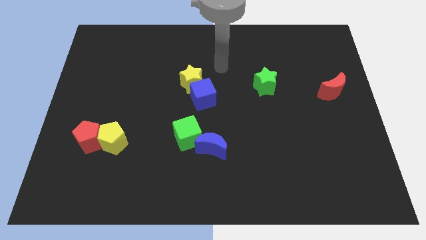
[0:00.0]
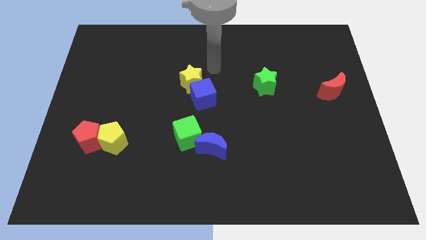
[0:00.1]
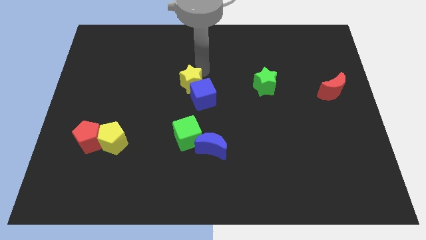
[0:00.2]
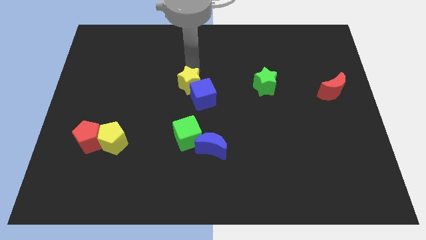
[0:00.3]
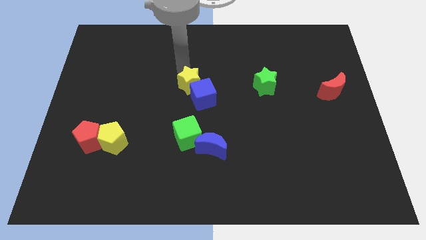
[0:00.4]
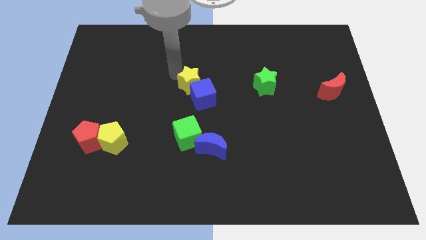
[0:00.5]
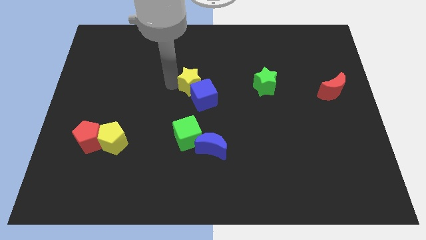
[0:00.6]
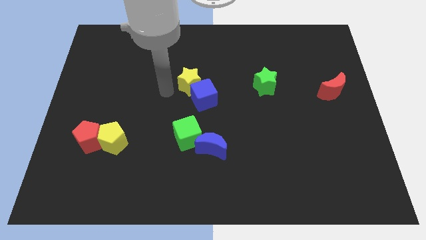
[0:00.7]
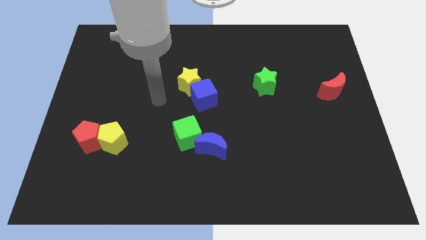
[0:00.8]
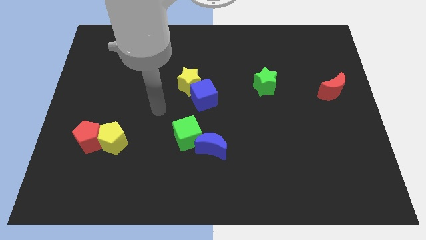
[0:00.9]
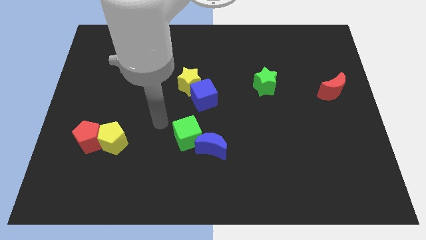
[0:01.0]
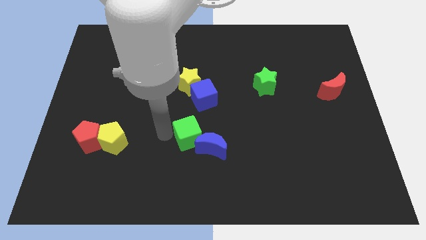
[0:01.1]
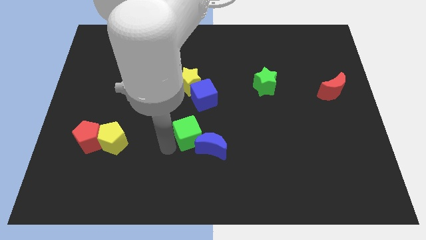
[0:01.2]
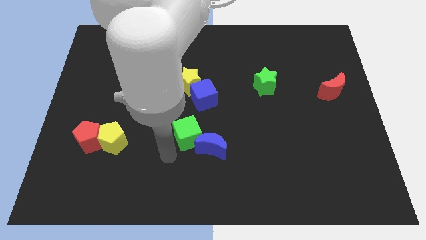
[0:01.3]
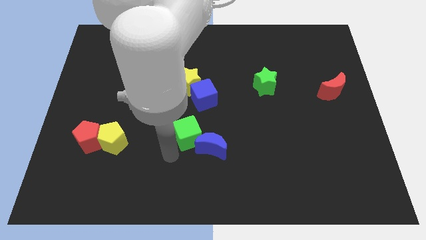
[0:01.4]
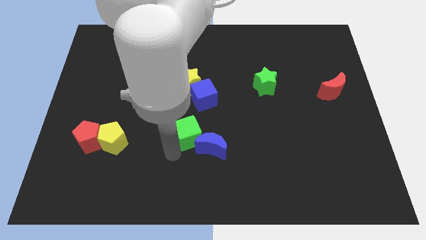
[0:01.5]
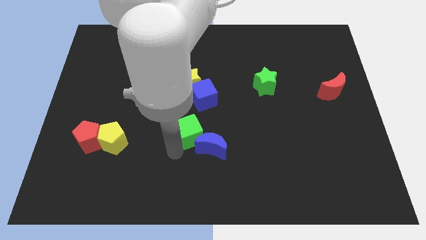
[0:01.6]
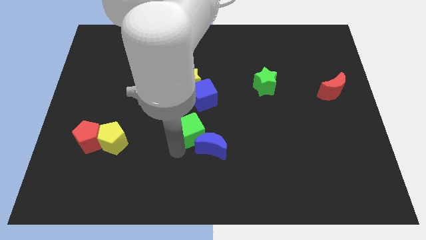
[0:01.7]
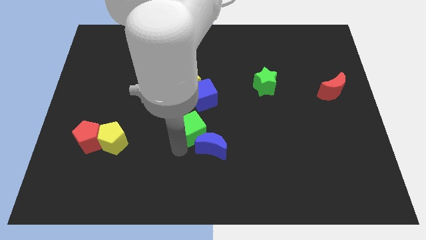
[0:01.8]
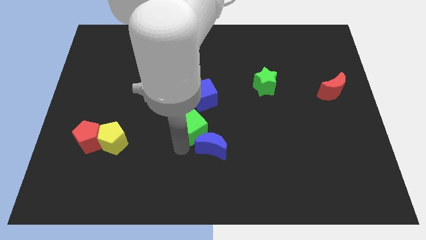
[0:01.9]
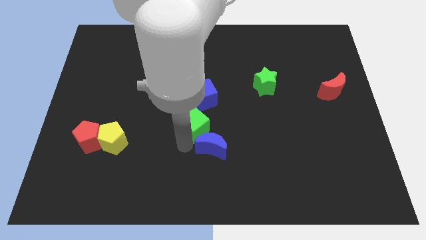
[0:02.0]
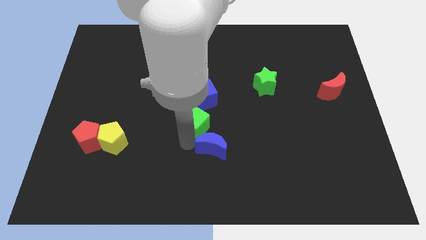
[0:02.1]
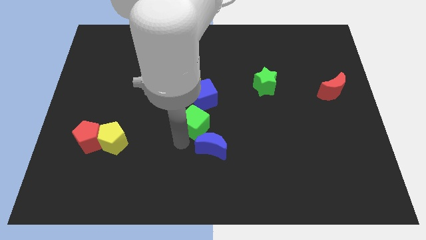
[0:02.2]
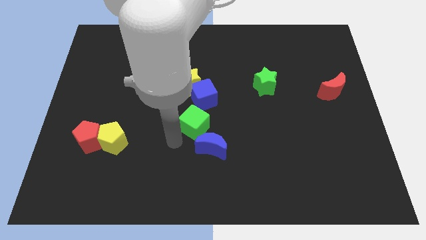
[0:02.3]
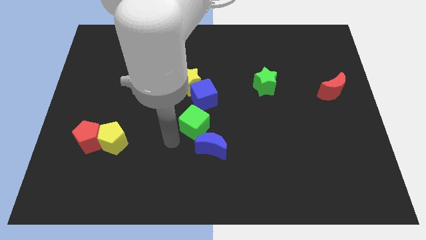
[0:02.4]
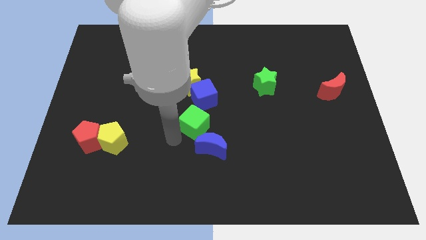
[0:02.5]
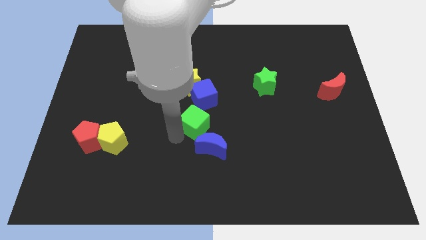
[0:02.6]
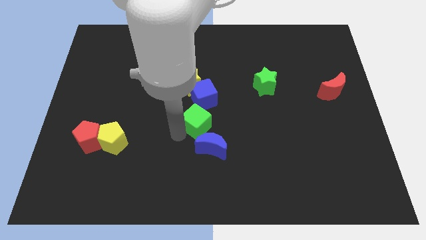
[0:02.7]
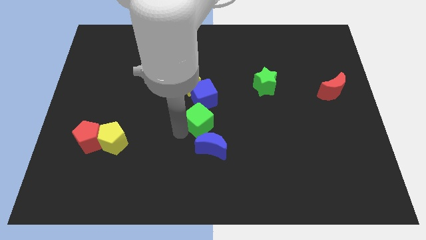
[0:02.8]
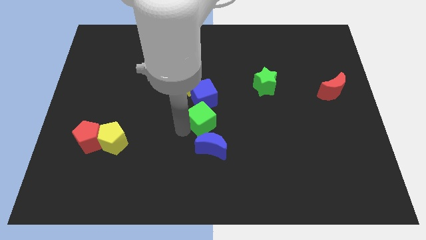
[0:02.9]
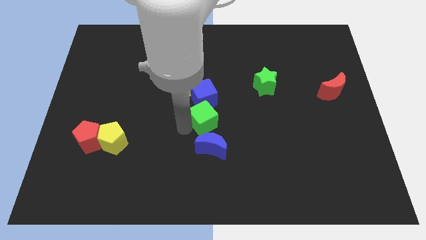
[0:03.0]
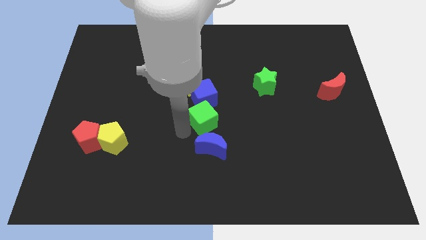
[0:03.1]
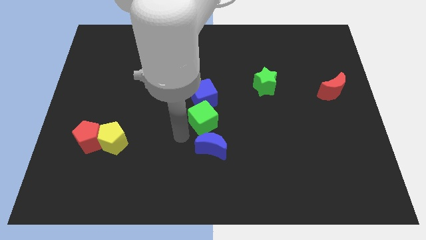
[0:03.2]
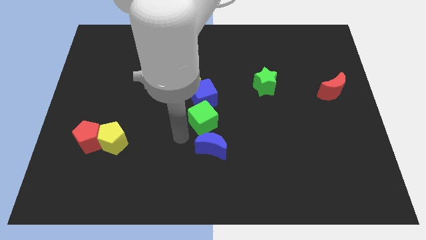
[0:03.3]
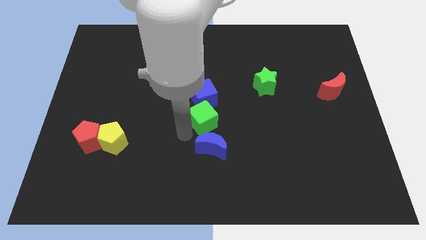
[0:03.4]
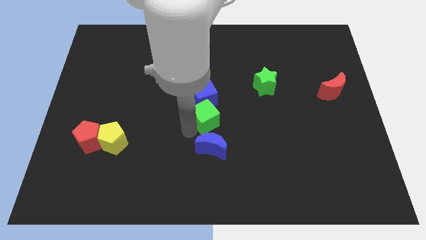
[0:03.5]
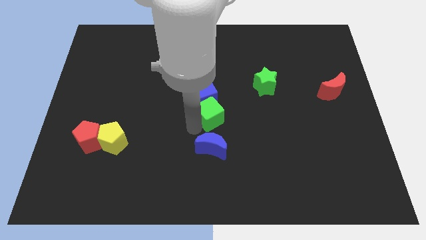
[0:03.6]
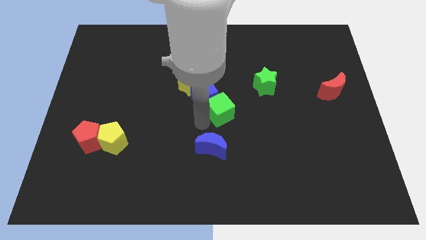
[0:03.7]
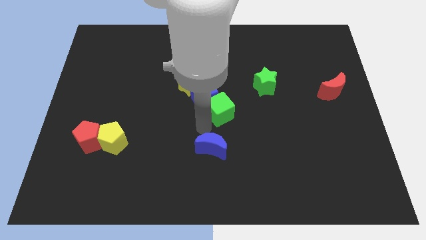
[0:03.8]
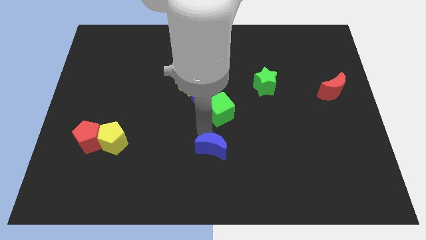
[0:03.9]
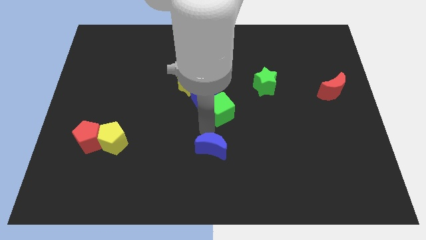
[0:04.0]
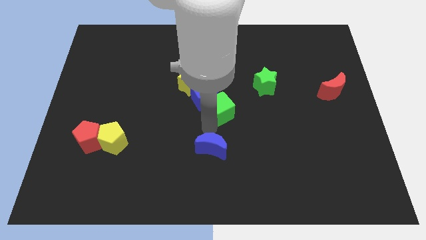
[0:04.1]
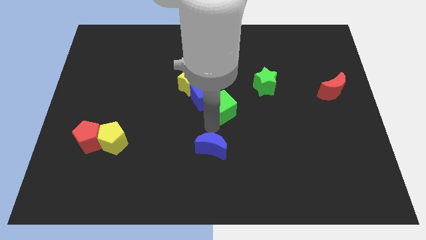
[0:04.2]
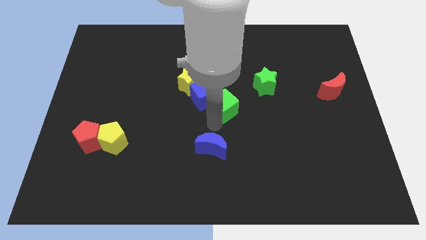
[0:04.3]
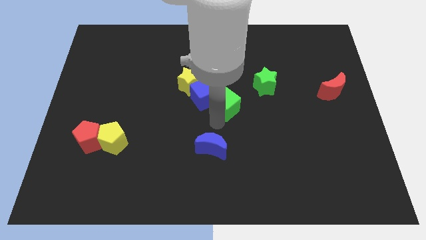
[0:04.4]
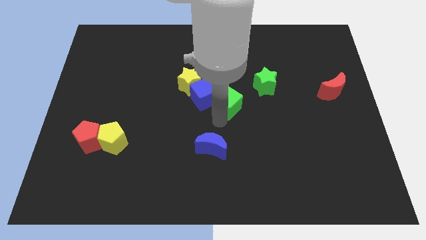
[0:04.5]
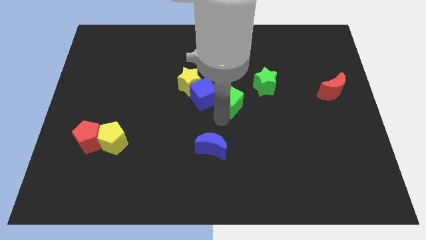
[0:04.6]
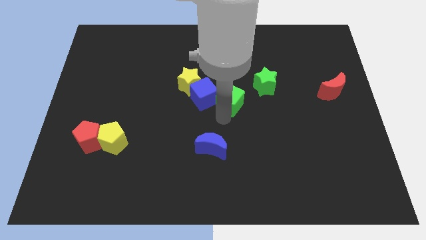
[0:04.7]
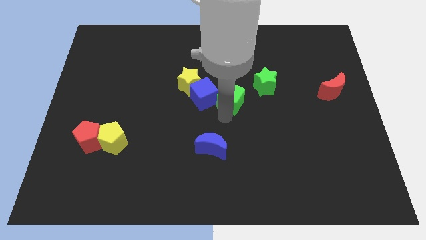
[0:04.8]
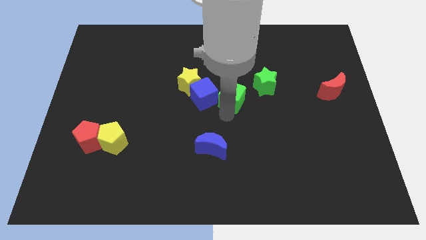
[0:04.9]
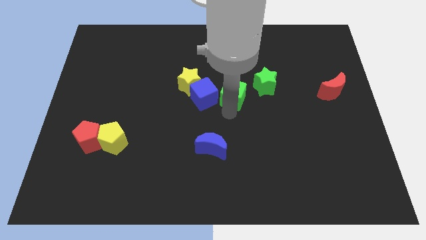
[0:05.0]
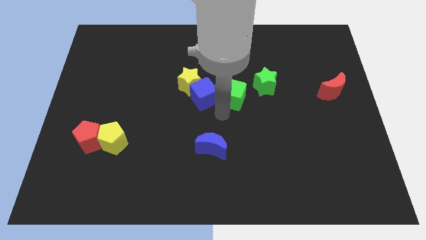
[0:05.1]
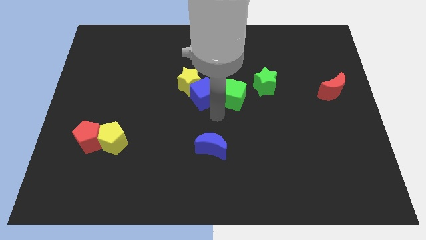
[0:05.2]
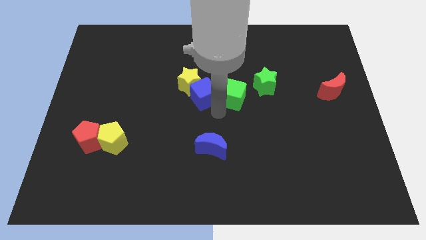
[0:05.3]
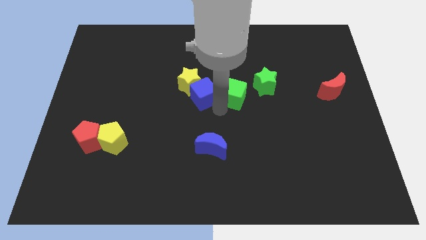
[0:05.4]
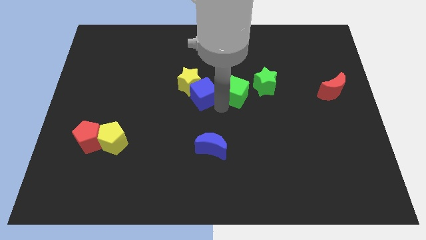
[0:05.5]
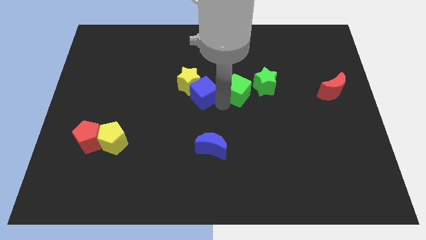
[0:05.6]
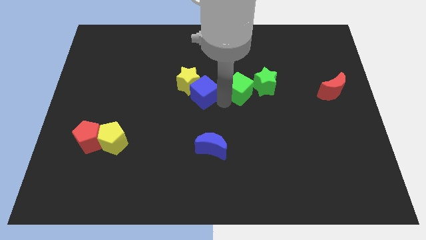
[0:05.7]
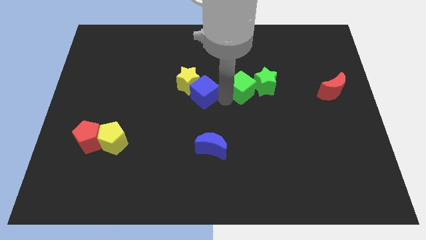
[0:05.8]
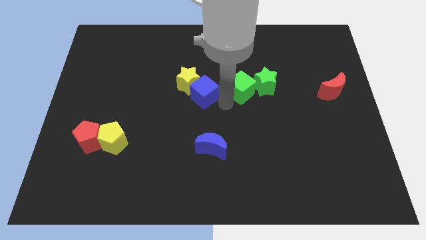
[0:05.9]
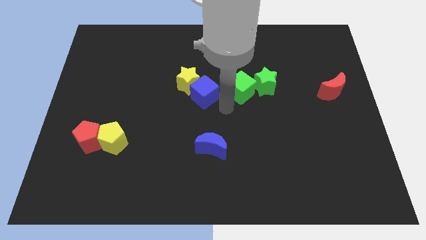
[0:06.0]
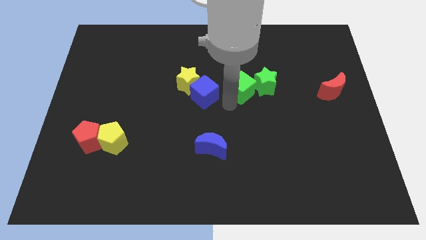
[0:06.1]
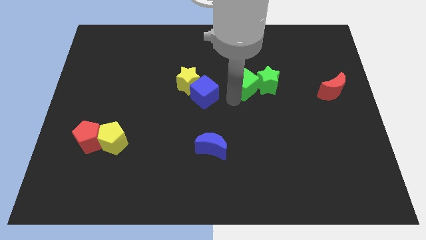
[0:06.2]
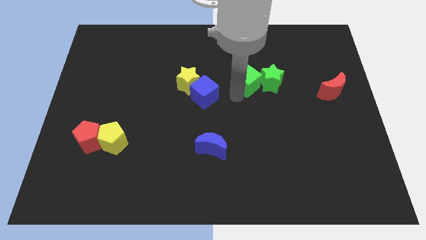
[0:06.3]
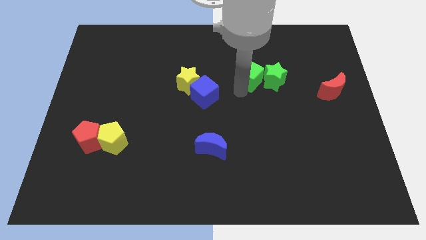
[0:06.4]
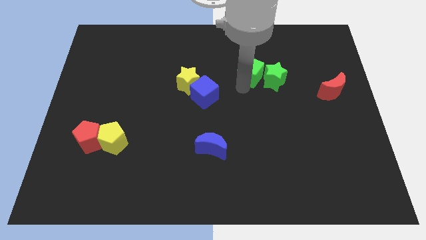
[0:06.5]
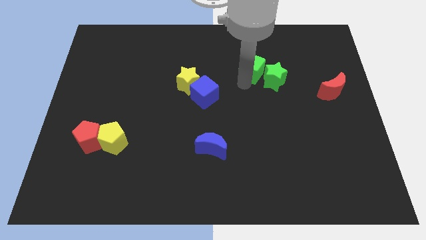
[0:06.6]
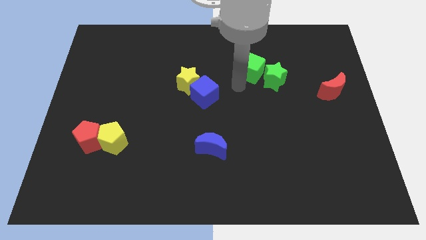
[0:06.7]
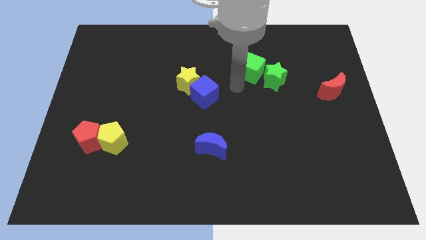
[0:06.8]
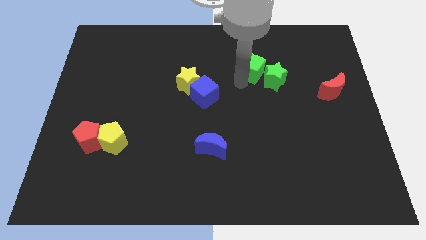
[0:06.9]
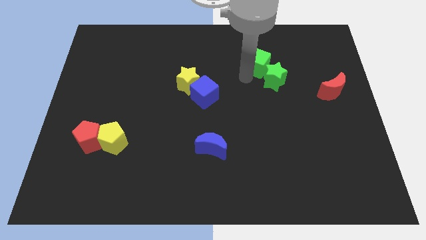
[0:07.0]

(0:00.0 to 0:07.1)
move the green cube to the top side of the green star
